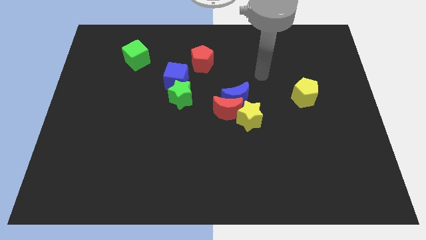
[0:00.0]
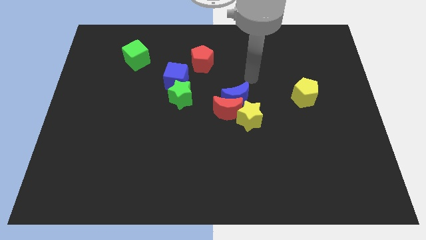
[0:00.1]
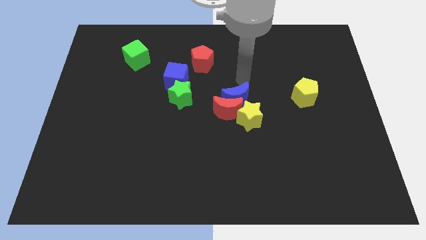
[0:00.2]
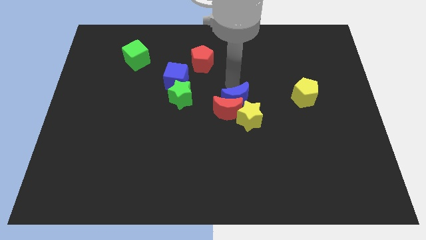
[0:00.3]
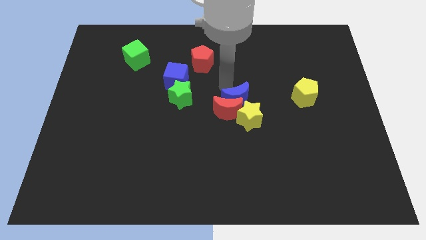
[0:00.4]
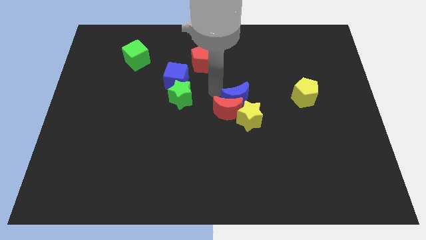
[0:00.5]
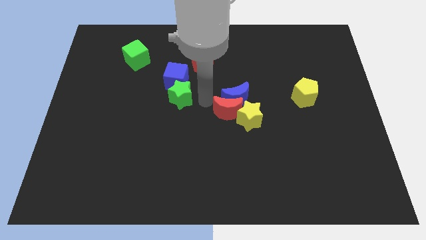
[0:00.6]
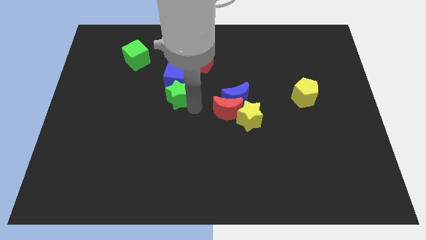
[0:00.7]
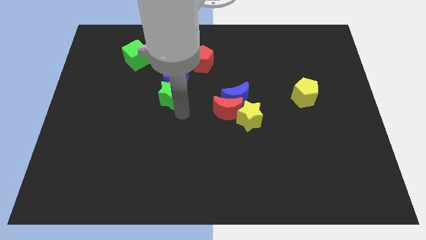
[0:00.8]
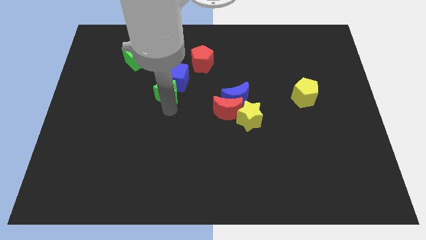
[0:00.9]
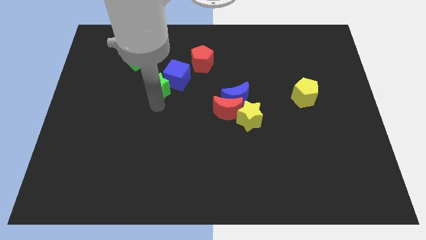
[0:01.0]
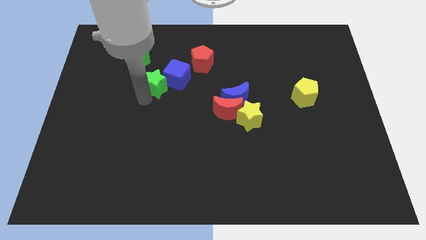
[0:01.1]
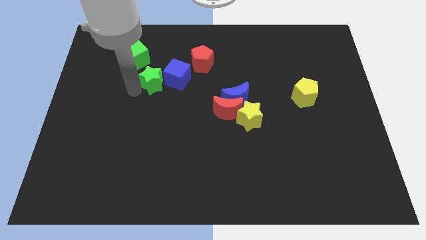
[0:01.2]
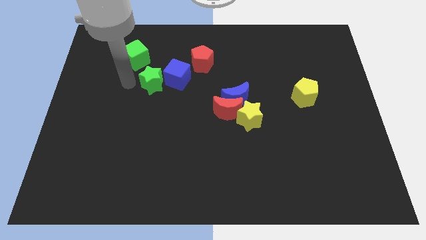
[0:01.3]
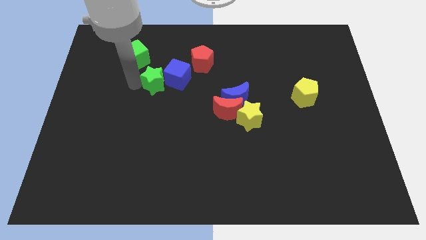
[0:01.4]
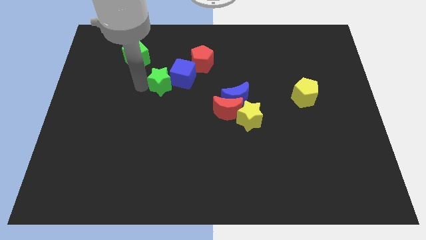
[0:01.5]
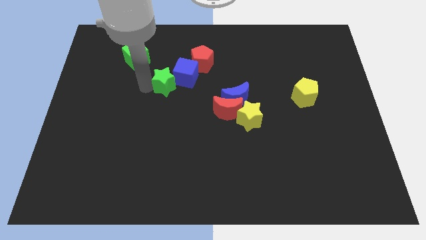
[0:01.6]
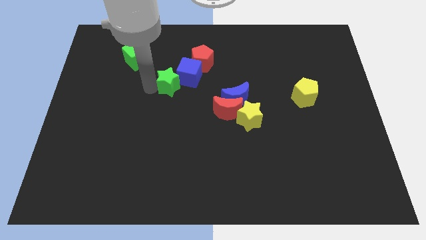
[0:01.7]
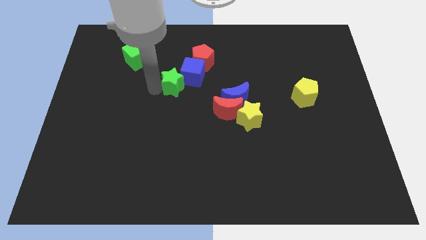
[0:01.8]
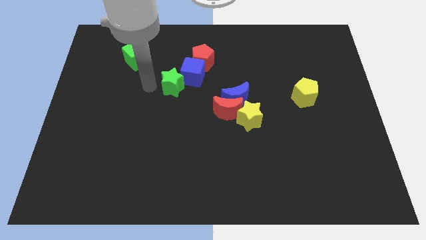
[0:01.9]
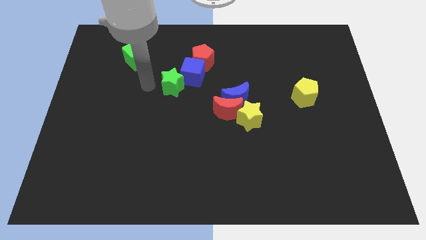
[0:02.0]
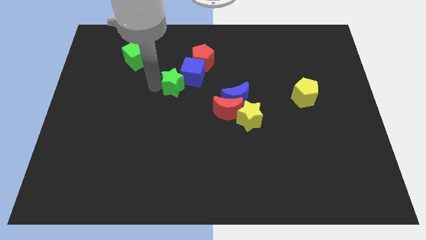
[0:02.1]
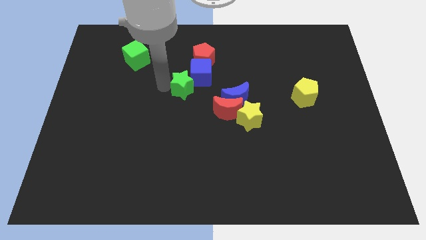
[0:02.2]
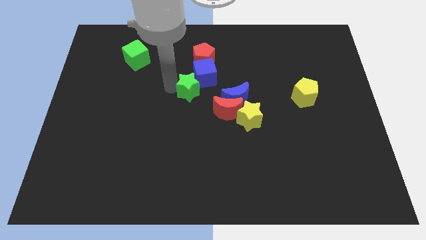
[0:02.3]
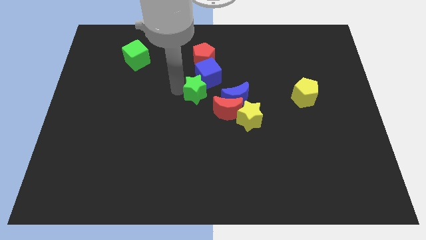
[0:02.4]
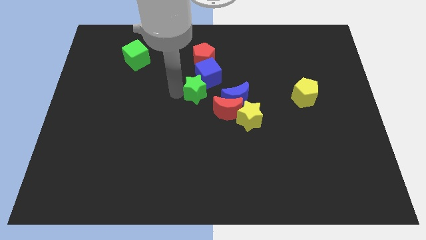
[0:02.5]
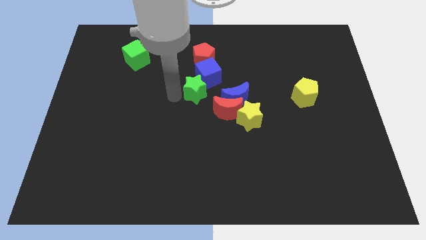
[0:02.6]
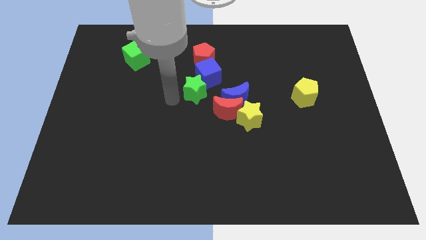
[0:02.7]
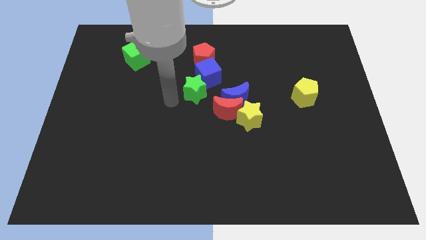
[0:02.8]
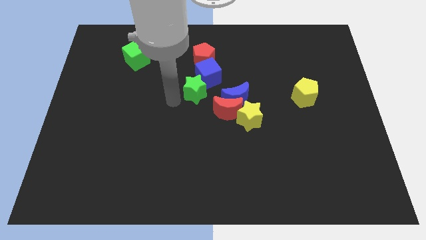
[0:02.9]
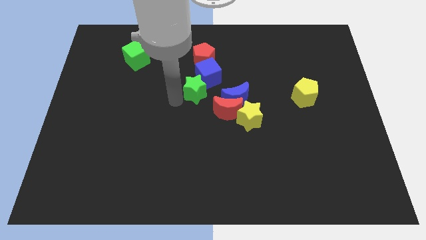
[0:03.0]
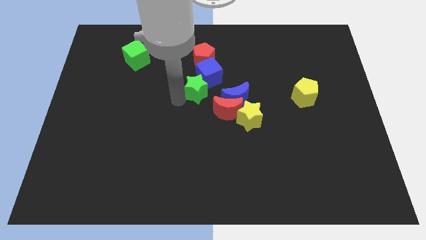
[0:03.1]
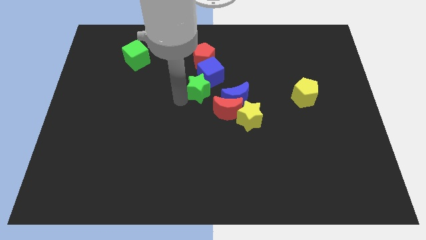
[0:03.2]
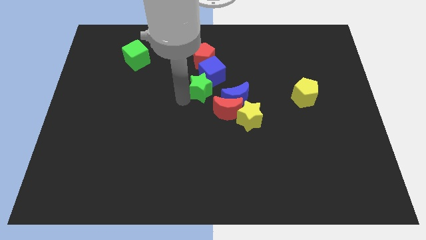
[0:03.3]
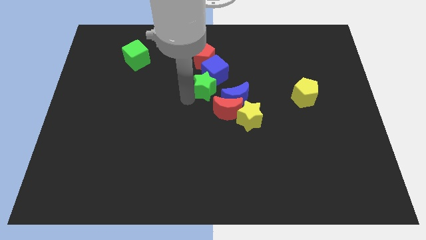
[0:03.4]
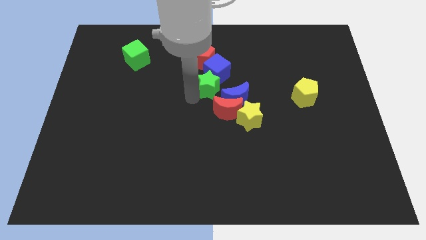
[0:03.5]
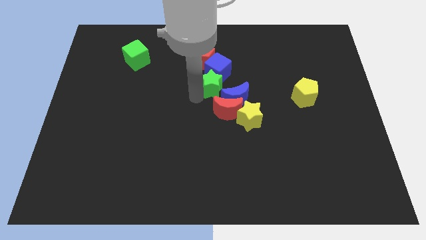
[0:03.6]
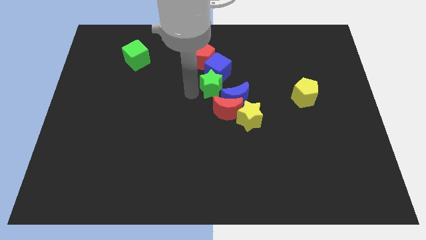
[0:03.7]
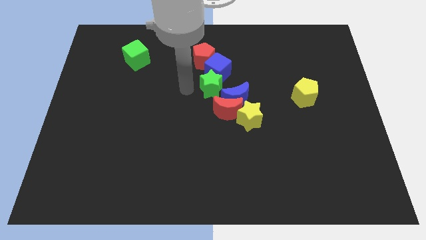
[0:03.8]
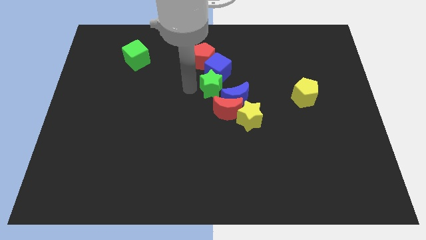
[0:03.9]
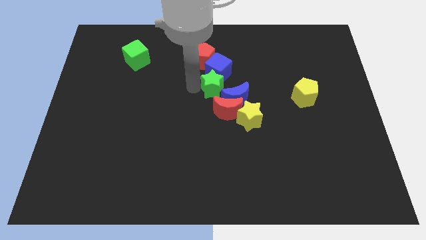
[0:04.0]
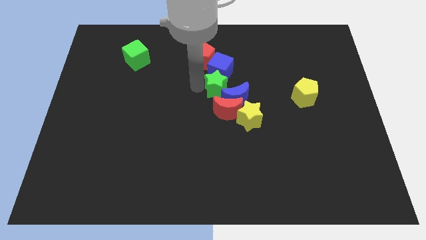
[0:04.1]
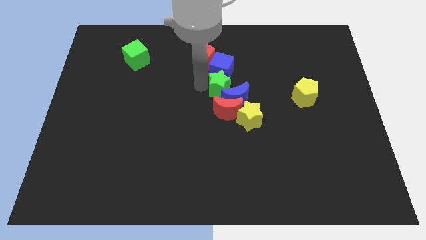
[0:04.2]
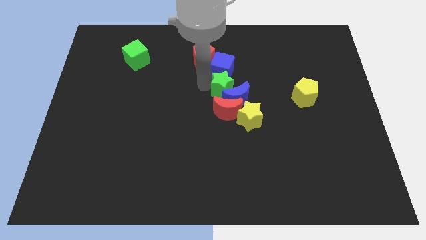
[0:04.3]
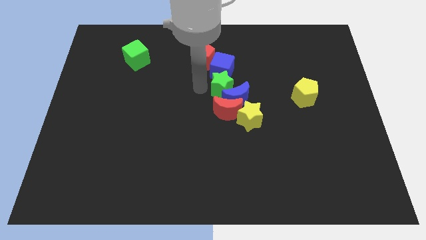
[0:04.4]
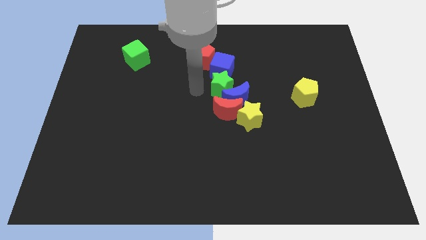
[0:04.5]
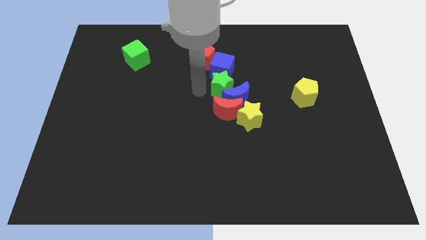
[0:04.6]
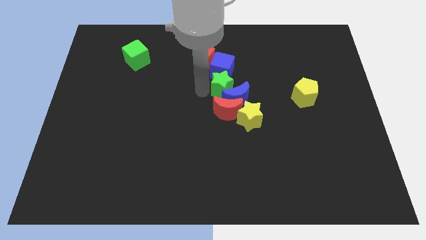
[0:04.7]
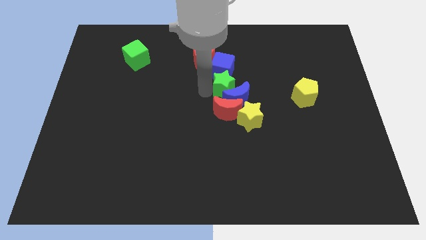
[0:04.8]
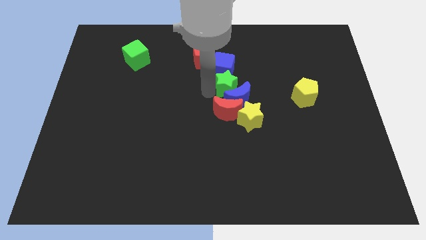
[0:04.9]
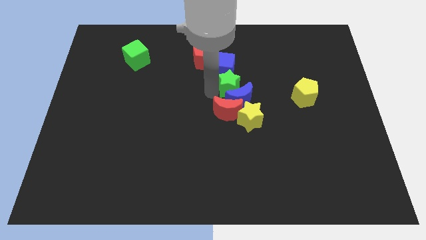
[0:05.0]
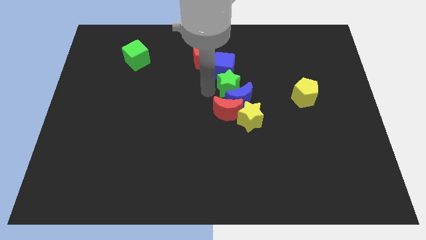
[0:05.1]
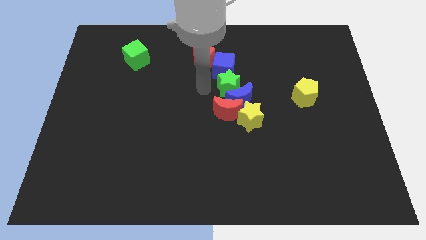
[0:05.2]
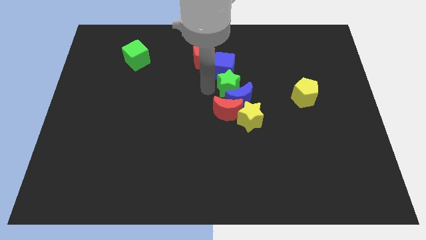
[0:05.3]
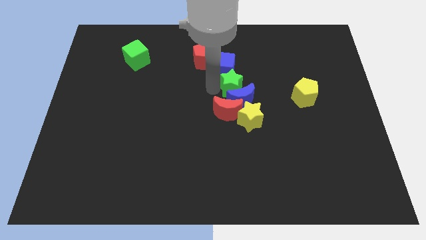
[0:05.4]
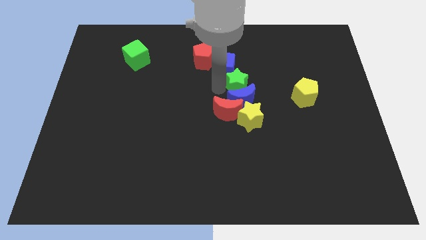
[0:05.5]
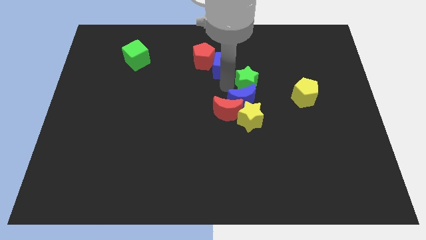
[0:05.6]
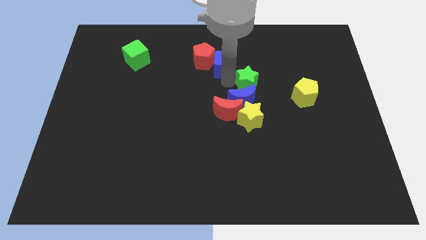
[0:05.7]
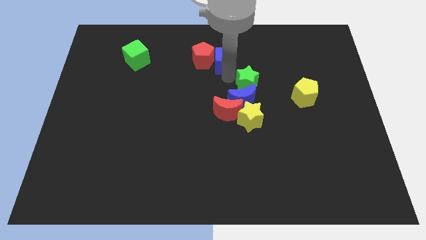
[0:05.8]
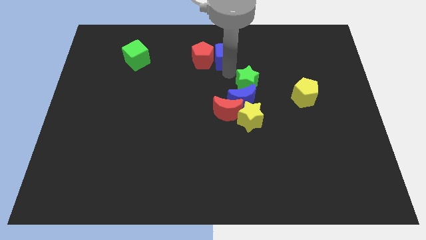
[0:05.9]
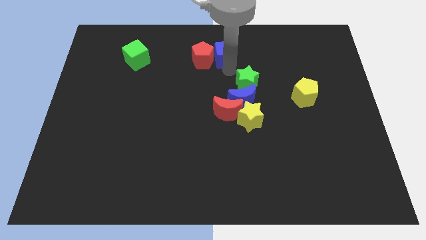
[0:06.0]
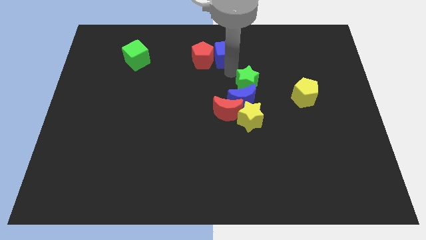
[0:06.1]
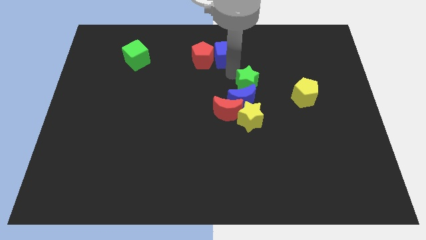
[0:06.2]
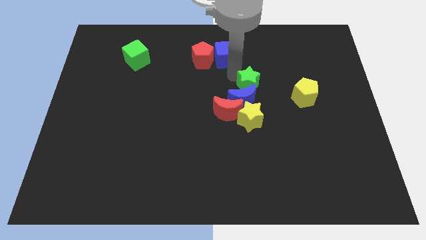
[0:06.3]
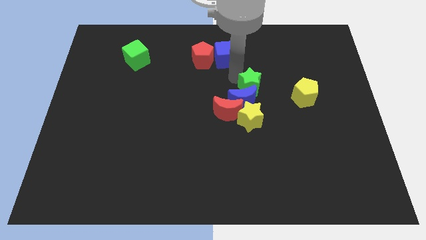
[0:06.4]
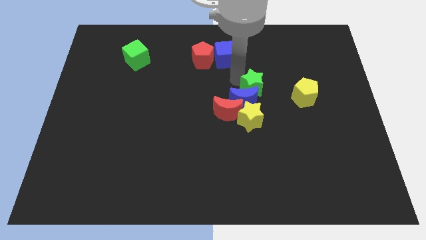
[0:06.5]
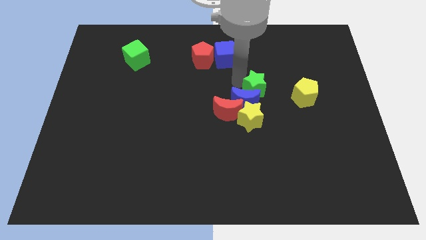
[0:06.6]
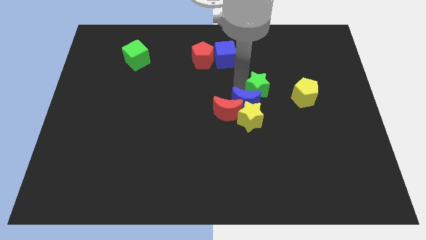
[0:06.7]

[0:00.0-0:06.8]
put the green star diagonally up and to the right of the yellow star
